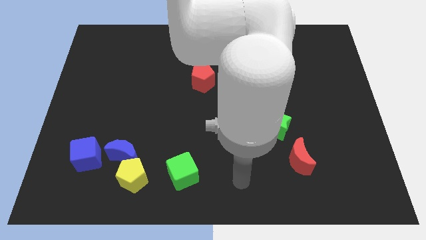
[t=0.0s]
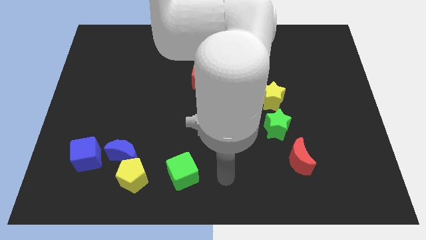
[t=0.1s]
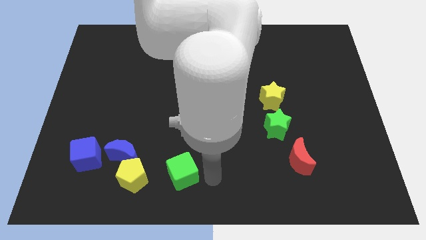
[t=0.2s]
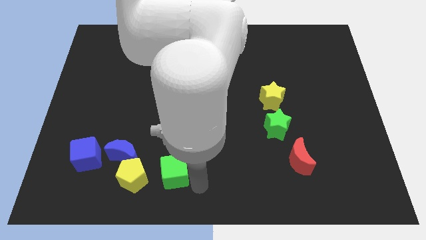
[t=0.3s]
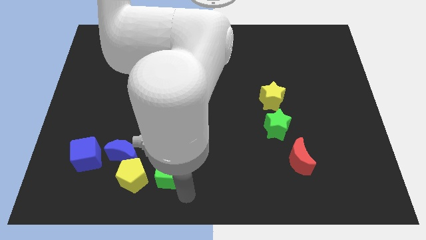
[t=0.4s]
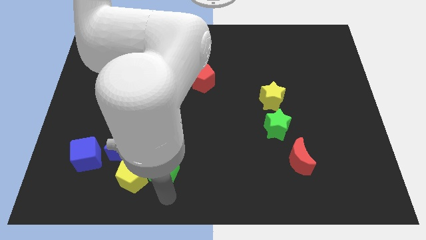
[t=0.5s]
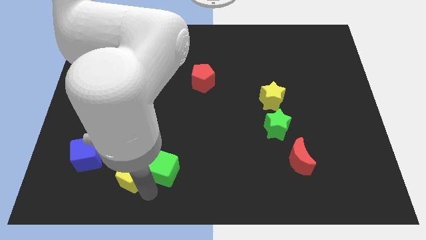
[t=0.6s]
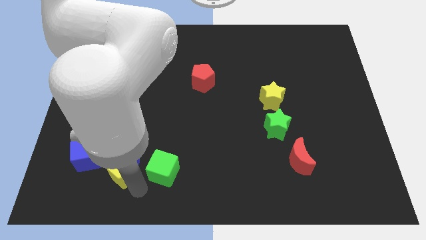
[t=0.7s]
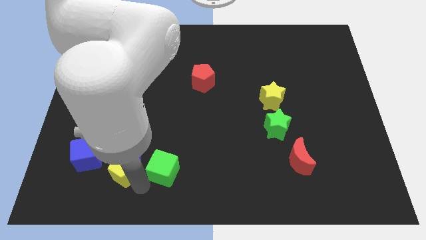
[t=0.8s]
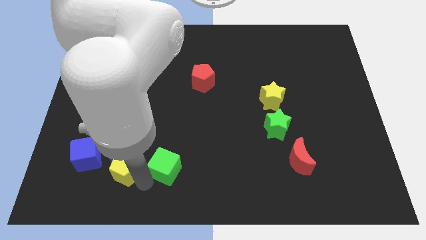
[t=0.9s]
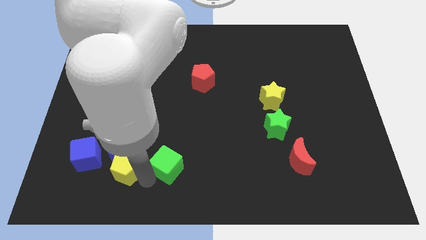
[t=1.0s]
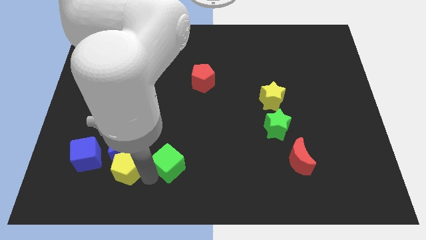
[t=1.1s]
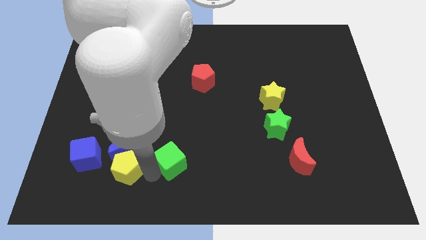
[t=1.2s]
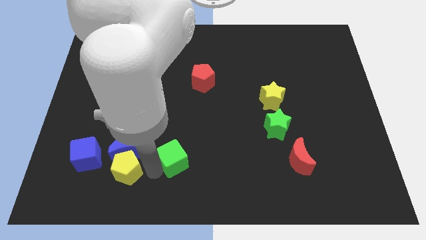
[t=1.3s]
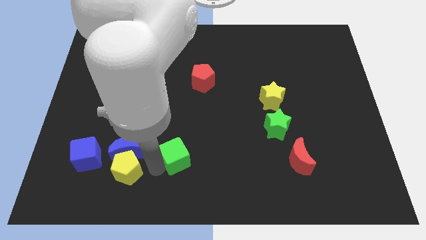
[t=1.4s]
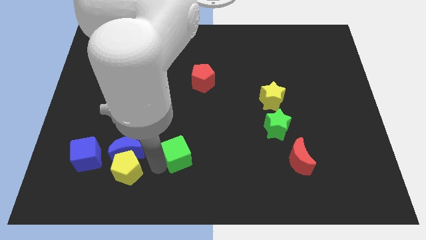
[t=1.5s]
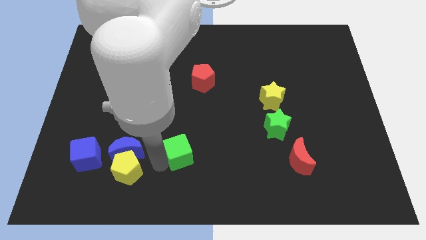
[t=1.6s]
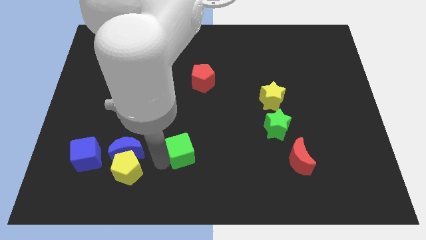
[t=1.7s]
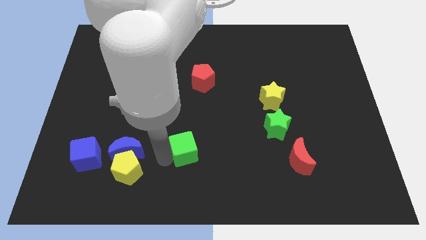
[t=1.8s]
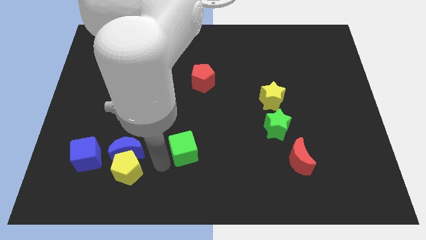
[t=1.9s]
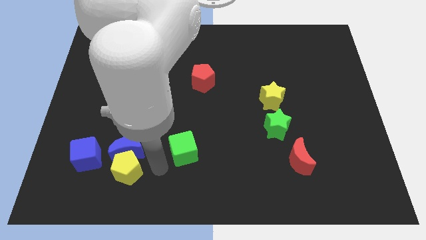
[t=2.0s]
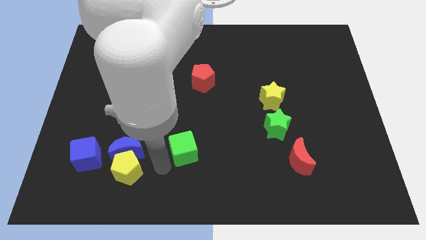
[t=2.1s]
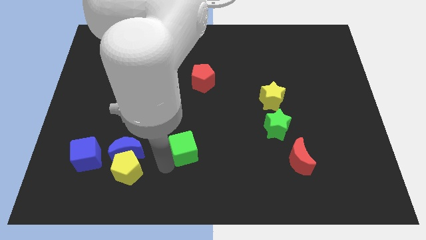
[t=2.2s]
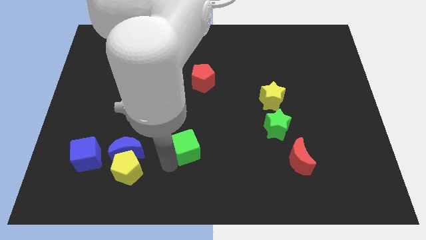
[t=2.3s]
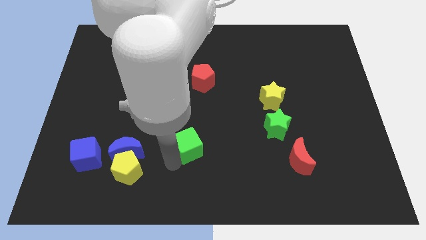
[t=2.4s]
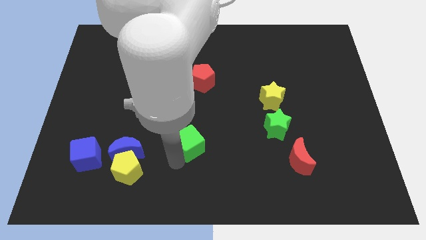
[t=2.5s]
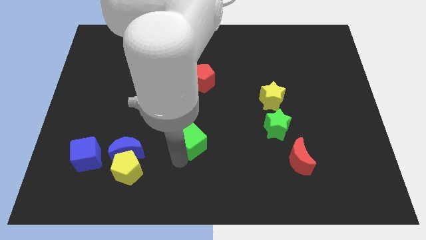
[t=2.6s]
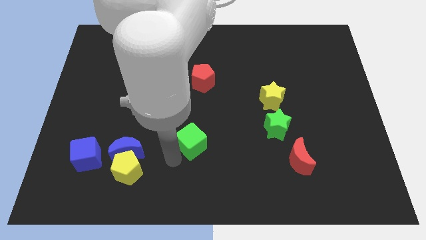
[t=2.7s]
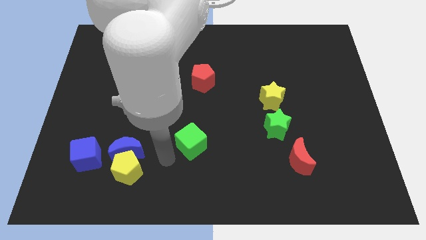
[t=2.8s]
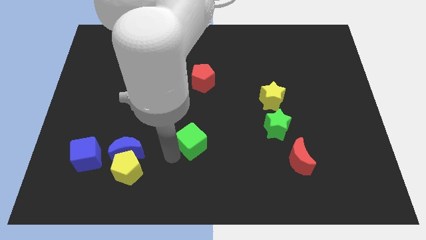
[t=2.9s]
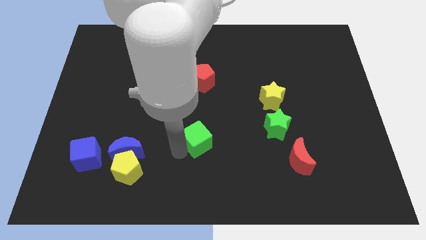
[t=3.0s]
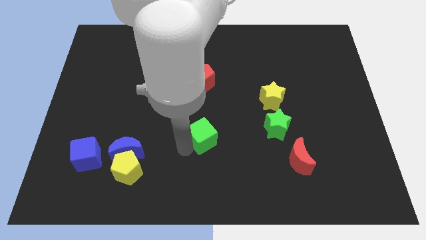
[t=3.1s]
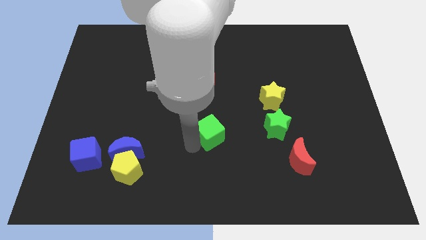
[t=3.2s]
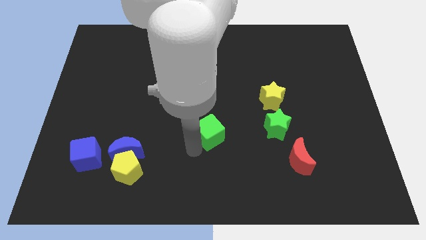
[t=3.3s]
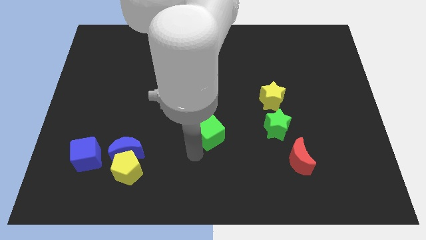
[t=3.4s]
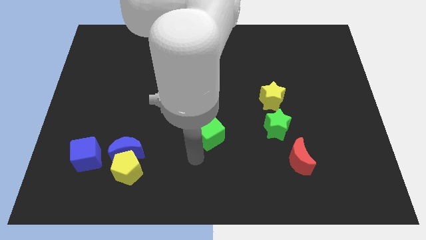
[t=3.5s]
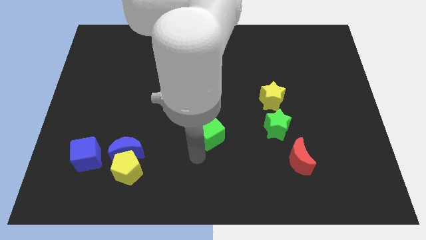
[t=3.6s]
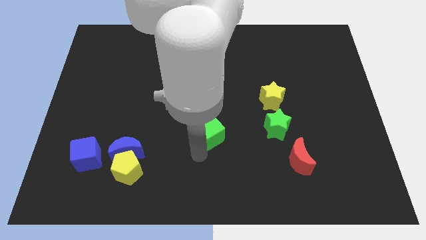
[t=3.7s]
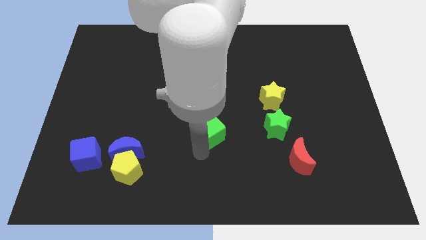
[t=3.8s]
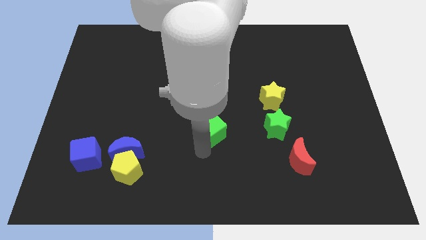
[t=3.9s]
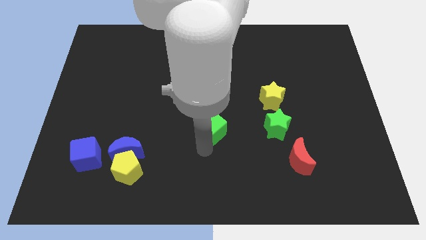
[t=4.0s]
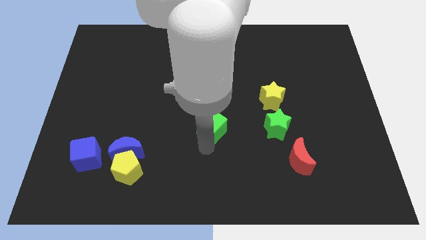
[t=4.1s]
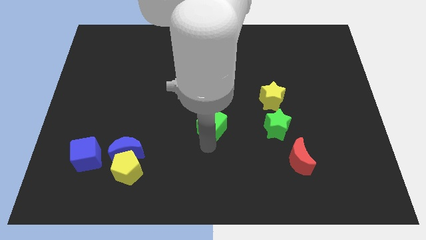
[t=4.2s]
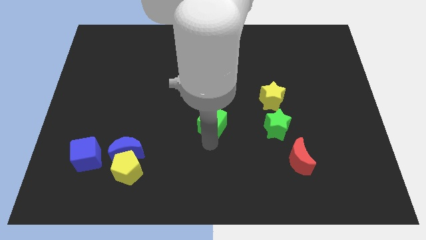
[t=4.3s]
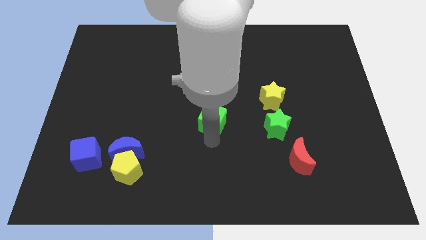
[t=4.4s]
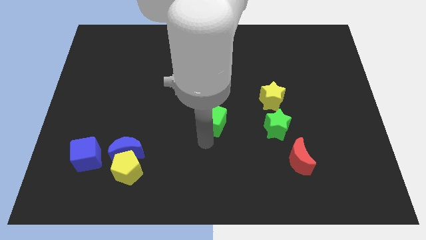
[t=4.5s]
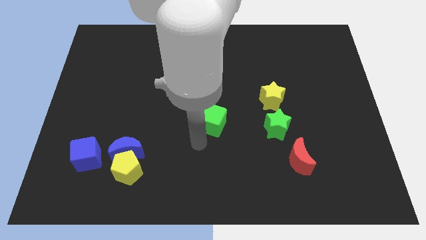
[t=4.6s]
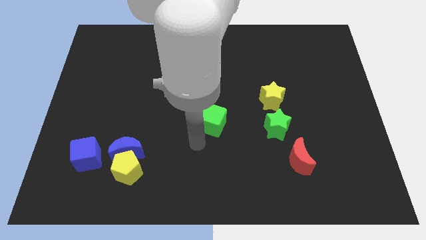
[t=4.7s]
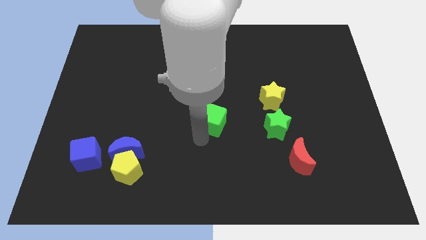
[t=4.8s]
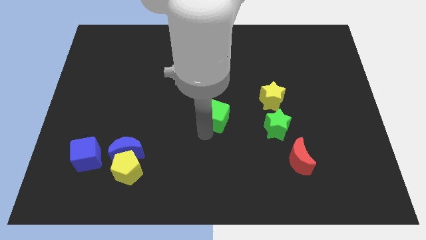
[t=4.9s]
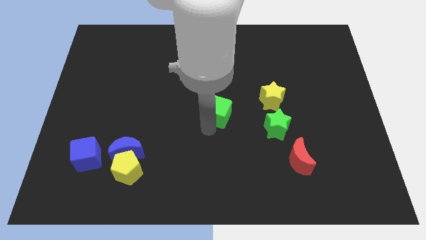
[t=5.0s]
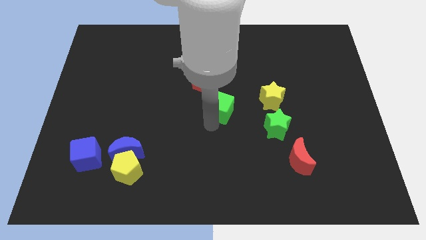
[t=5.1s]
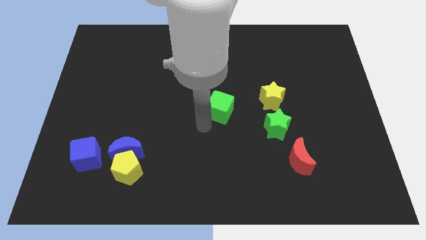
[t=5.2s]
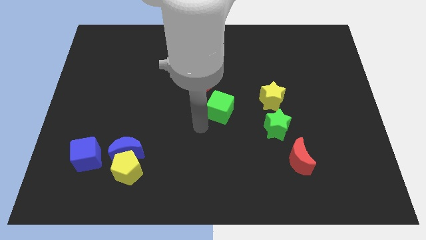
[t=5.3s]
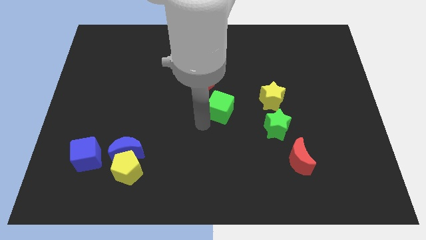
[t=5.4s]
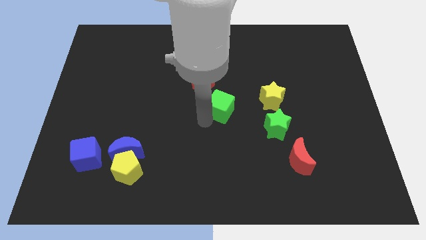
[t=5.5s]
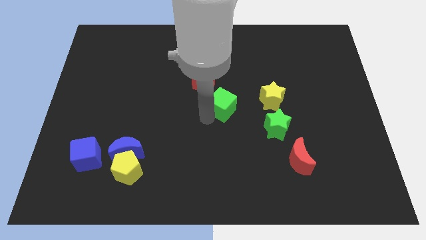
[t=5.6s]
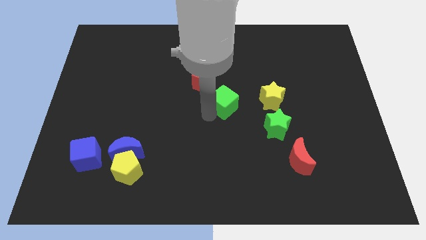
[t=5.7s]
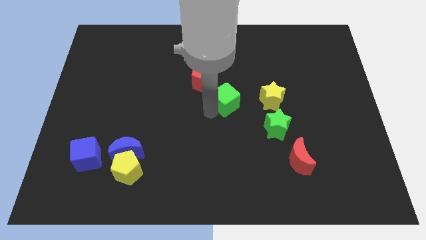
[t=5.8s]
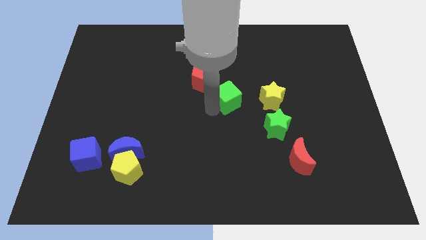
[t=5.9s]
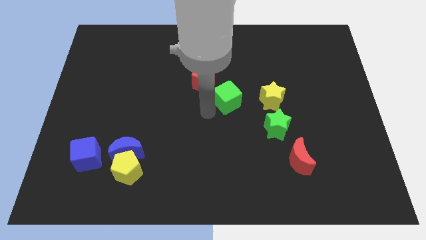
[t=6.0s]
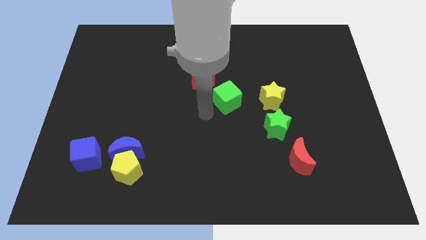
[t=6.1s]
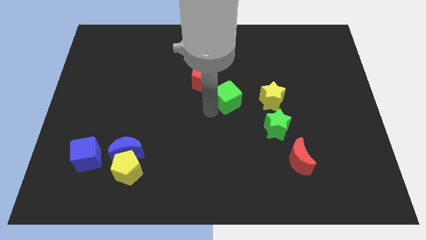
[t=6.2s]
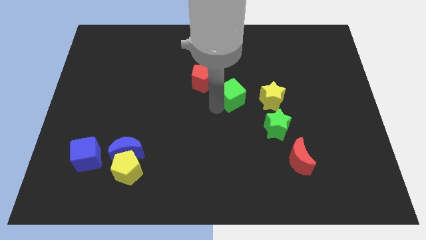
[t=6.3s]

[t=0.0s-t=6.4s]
move the green cube diagonally up and right

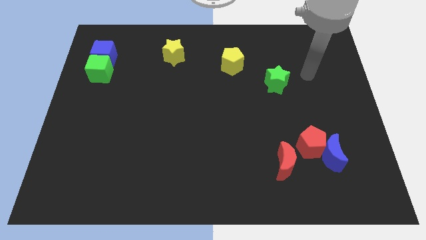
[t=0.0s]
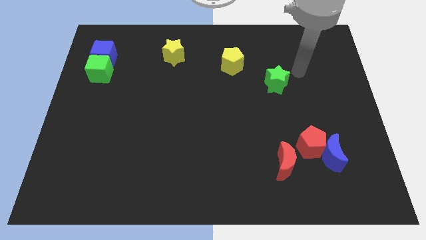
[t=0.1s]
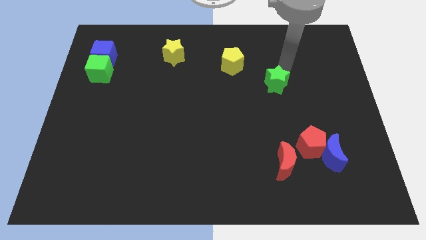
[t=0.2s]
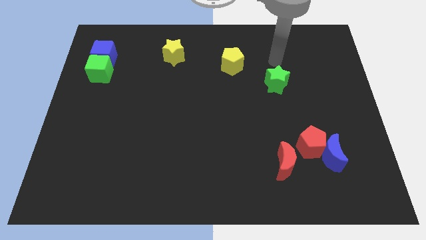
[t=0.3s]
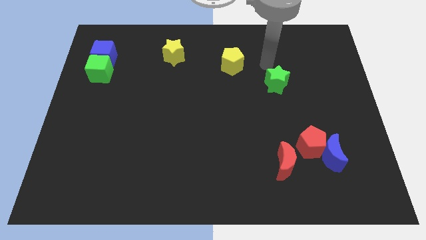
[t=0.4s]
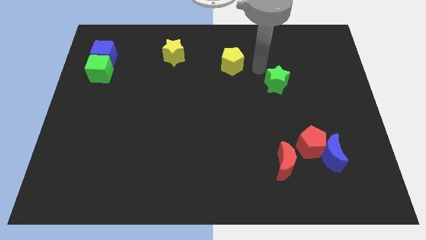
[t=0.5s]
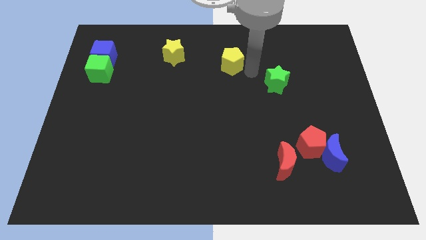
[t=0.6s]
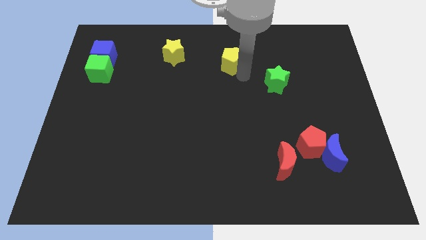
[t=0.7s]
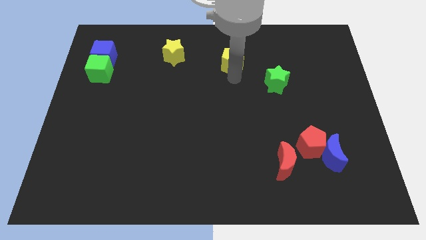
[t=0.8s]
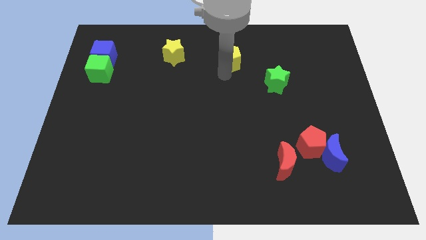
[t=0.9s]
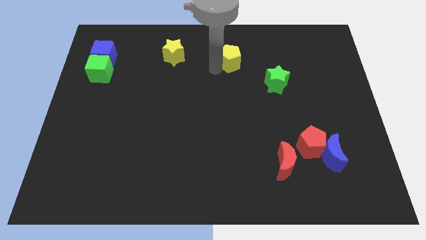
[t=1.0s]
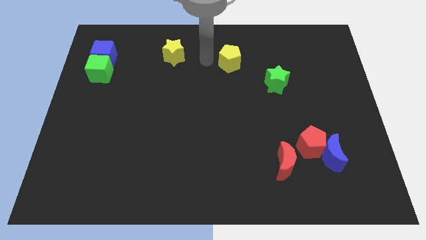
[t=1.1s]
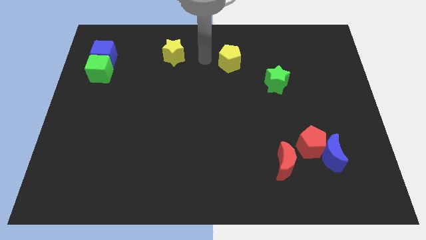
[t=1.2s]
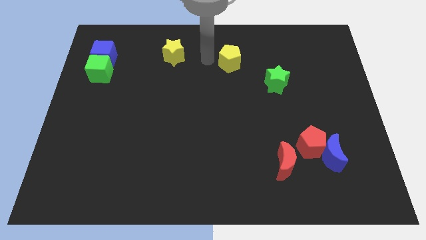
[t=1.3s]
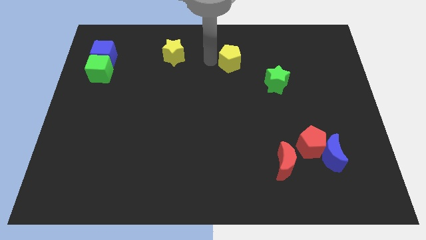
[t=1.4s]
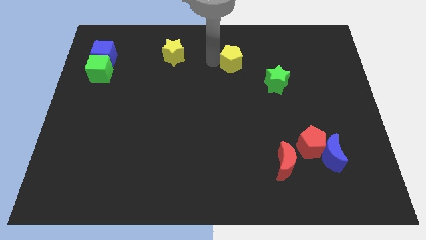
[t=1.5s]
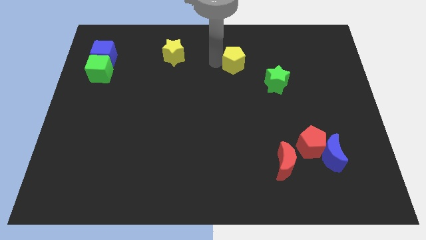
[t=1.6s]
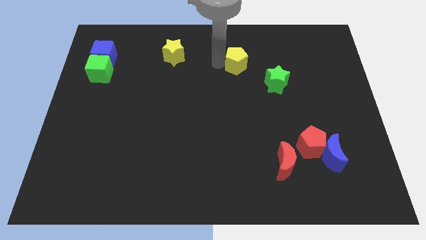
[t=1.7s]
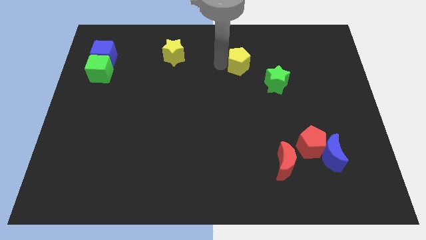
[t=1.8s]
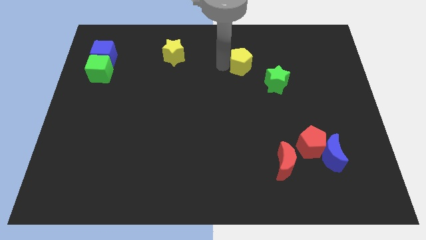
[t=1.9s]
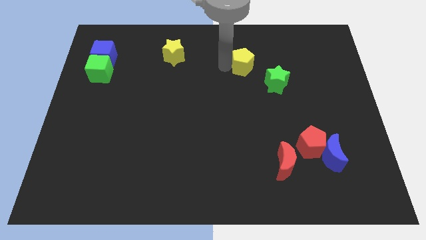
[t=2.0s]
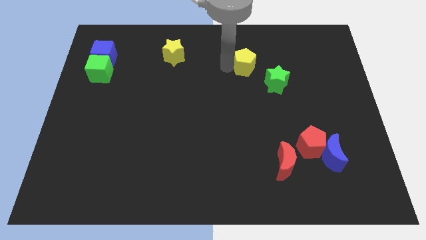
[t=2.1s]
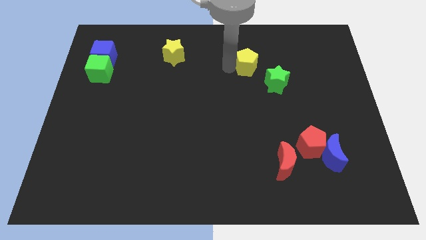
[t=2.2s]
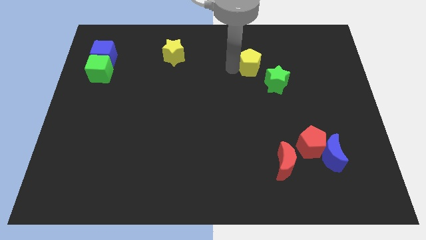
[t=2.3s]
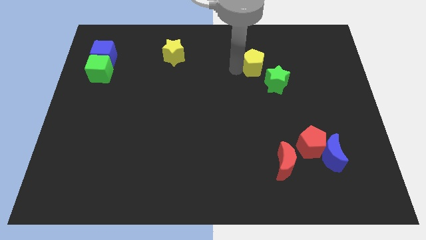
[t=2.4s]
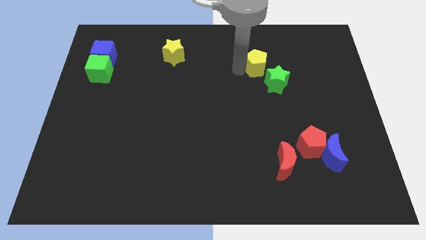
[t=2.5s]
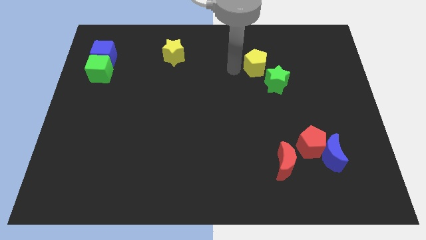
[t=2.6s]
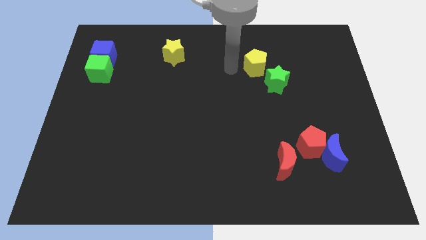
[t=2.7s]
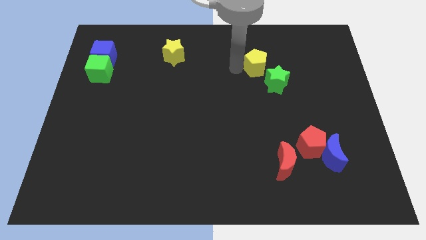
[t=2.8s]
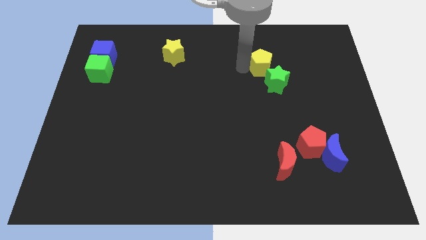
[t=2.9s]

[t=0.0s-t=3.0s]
slightly push the yellow pentagon right
